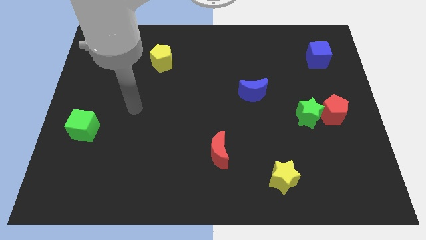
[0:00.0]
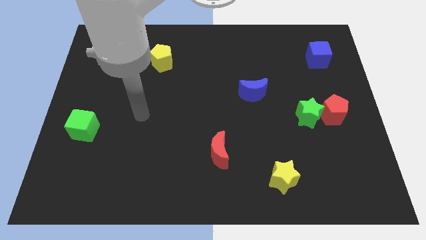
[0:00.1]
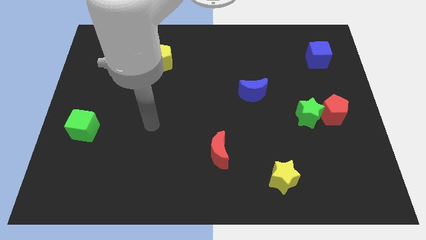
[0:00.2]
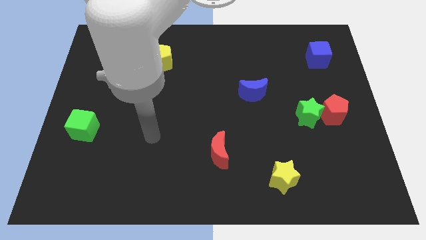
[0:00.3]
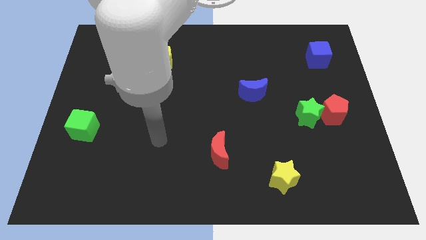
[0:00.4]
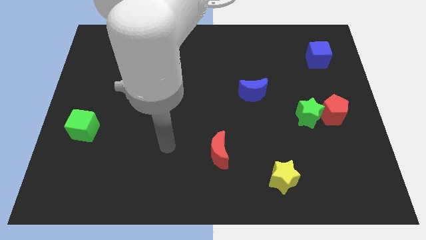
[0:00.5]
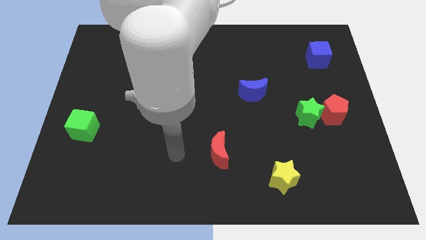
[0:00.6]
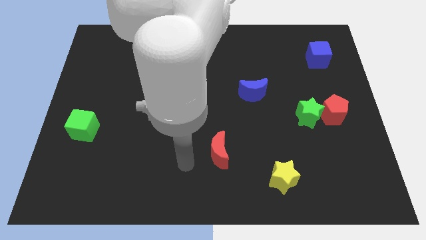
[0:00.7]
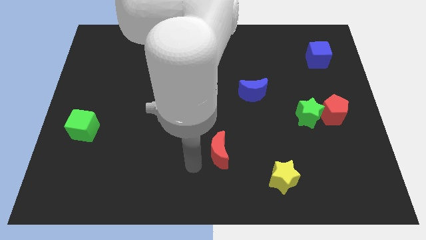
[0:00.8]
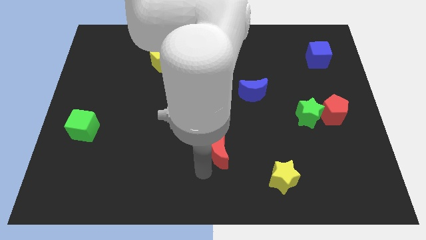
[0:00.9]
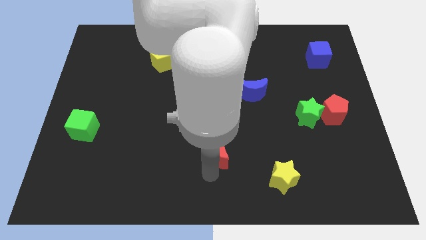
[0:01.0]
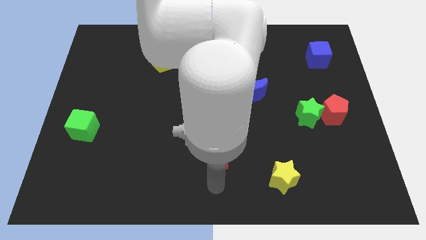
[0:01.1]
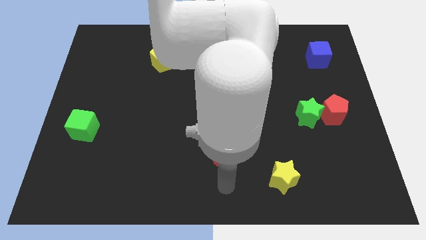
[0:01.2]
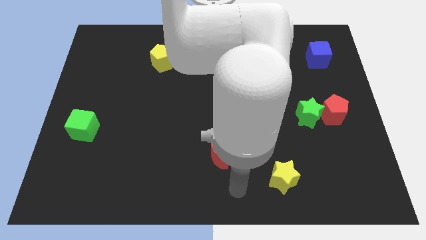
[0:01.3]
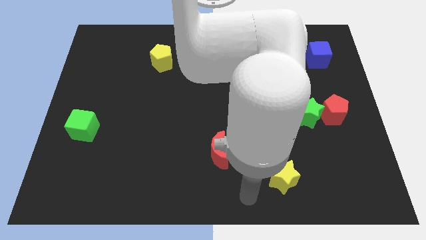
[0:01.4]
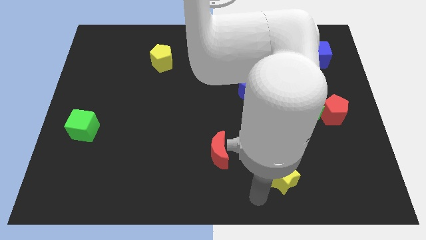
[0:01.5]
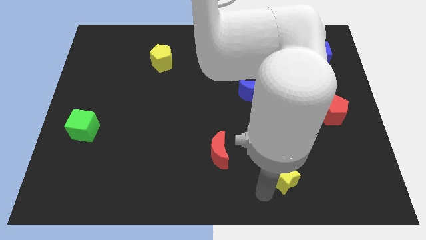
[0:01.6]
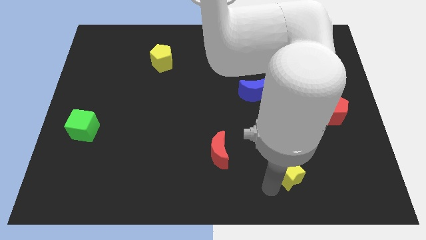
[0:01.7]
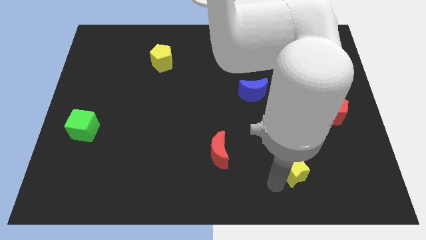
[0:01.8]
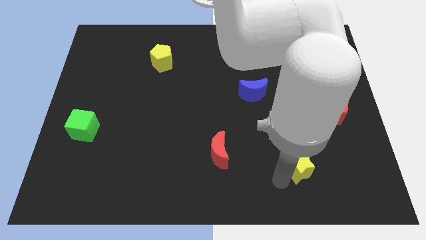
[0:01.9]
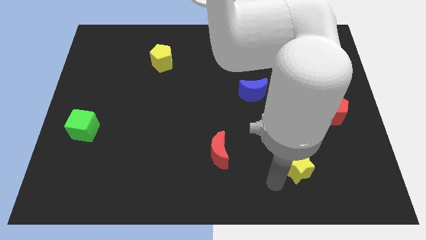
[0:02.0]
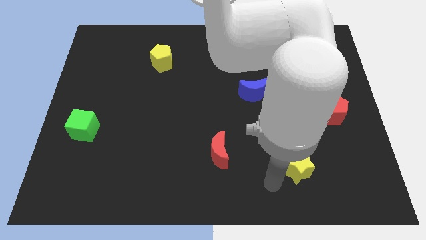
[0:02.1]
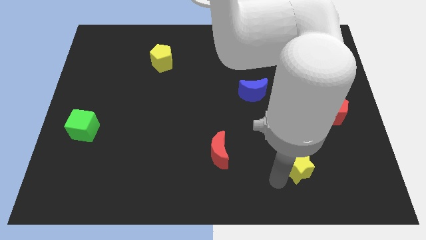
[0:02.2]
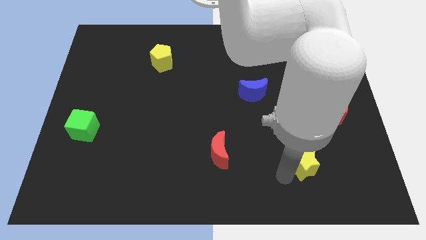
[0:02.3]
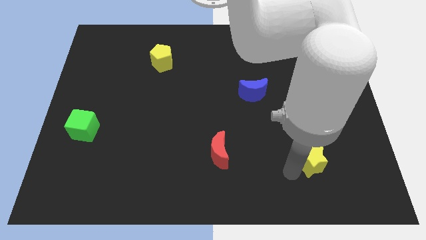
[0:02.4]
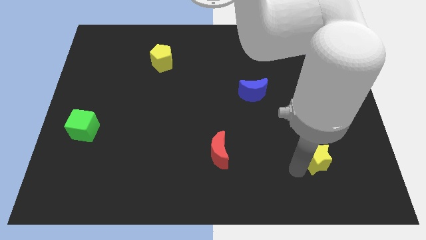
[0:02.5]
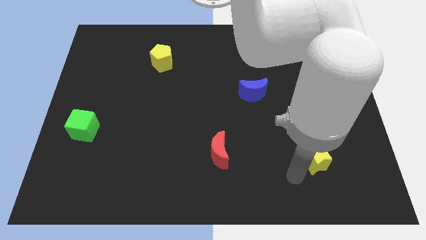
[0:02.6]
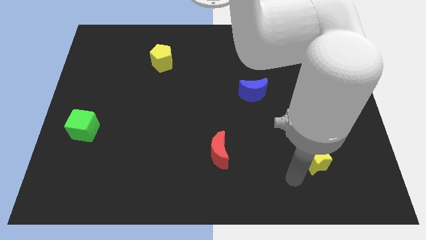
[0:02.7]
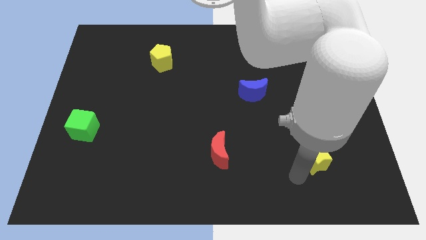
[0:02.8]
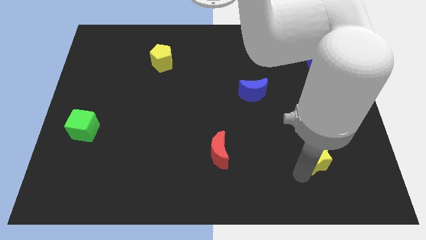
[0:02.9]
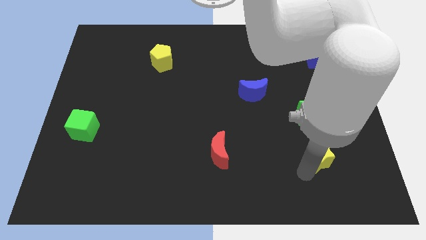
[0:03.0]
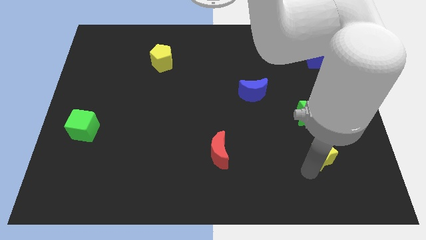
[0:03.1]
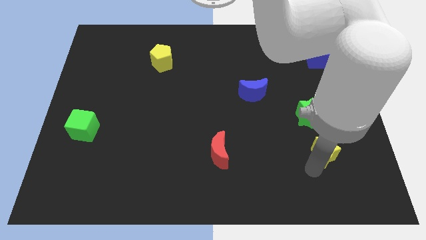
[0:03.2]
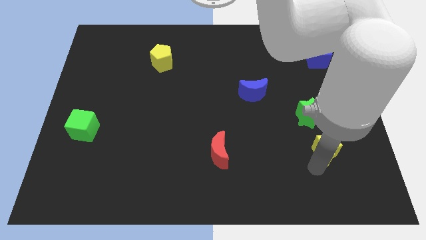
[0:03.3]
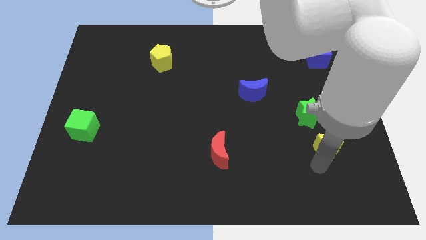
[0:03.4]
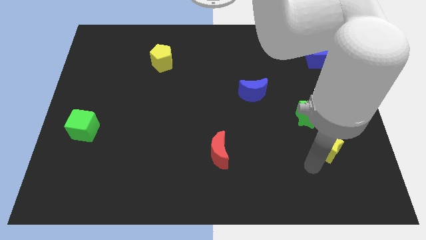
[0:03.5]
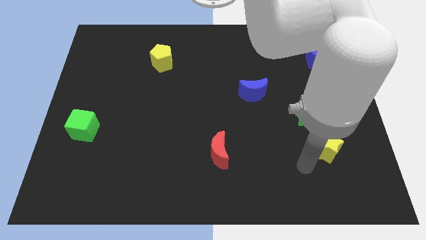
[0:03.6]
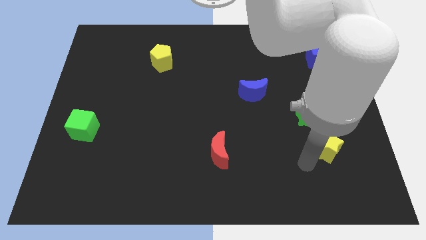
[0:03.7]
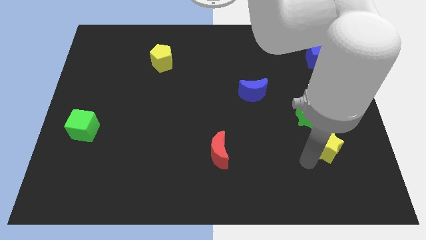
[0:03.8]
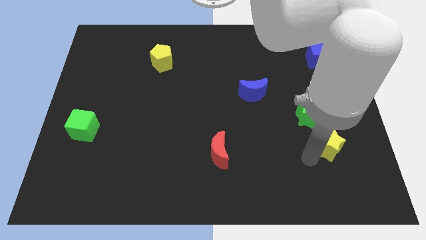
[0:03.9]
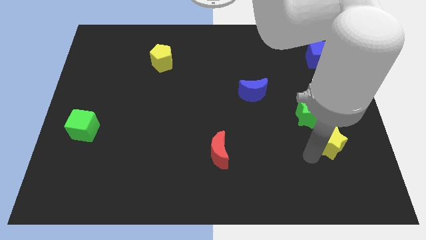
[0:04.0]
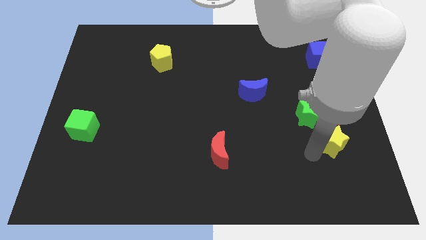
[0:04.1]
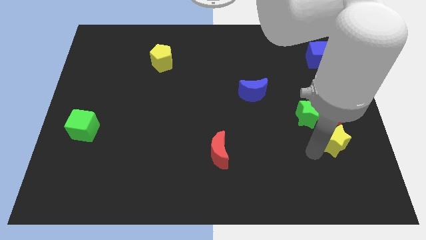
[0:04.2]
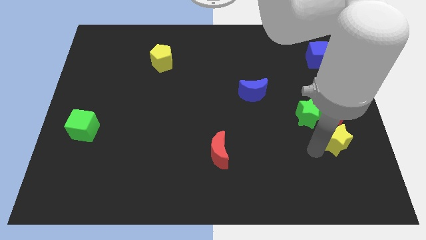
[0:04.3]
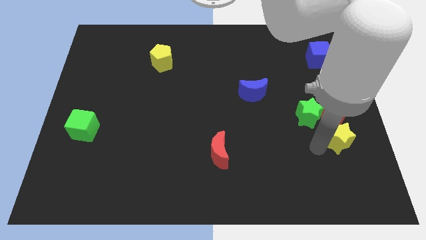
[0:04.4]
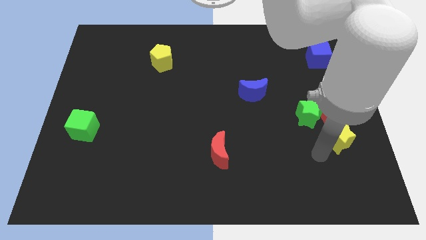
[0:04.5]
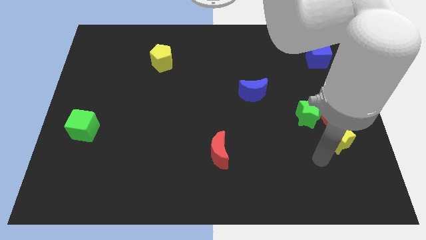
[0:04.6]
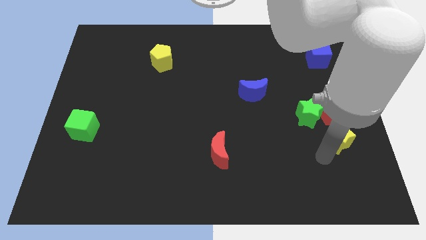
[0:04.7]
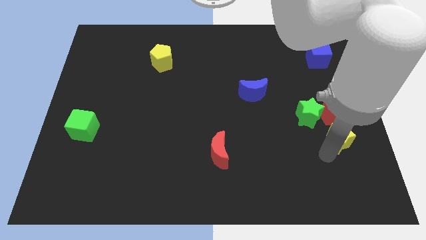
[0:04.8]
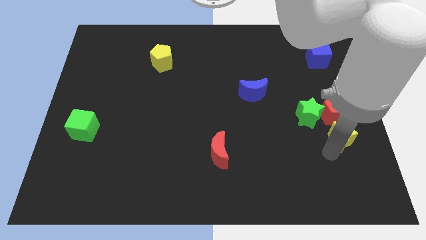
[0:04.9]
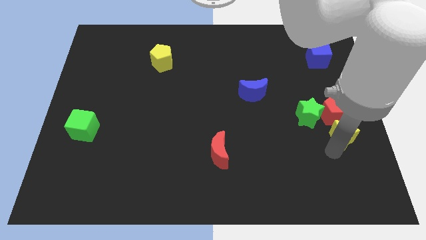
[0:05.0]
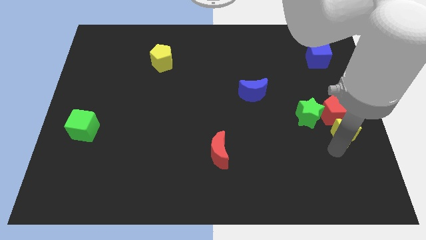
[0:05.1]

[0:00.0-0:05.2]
put the yellow star to the right side

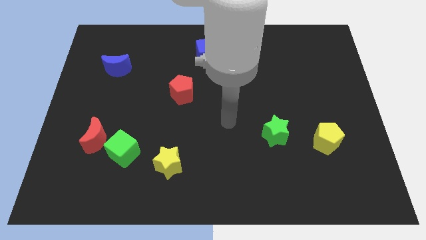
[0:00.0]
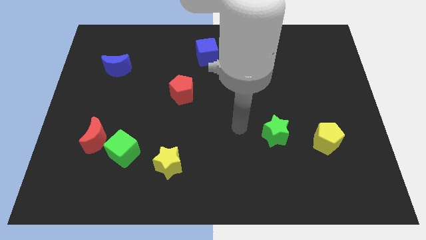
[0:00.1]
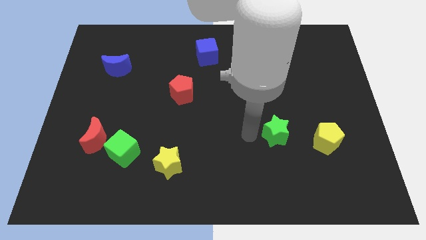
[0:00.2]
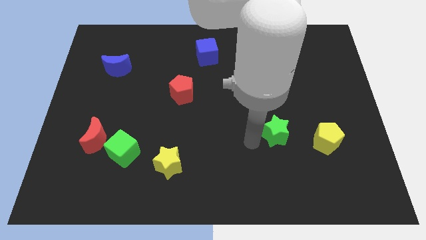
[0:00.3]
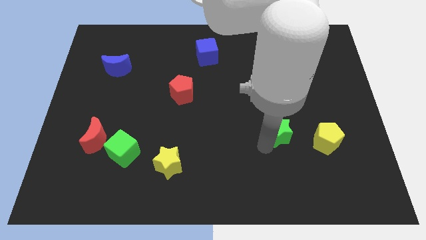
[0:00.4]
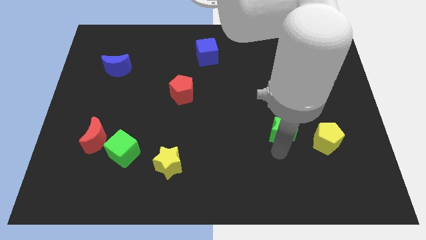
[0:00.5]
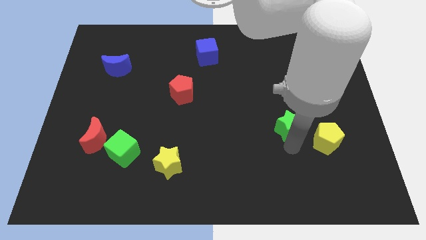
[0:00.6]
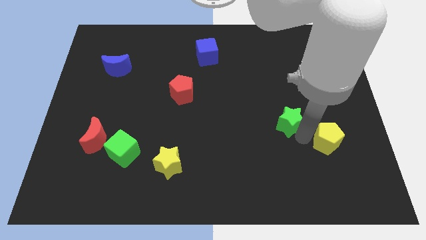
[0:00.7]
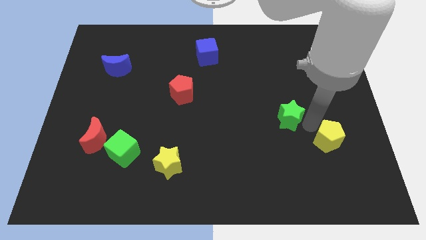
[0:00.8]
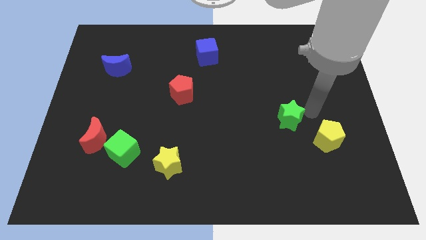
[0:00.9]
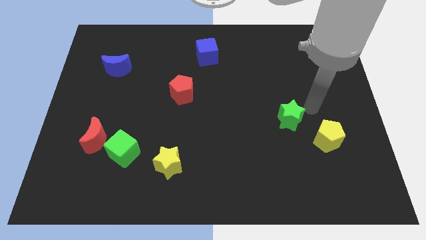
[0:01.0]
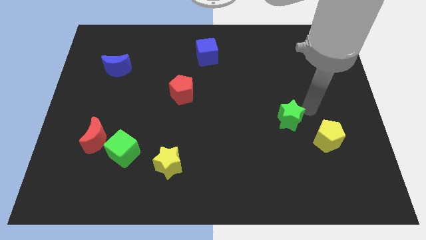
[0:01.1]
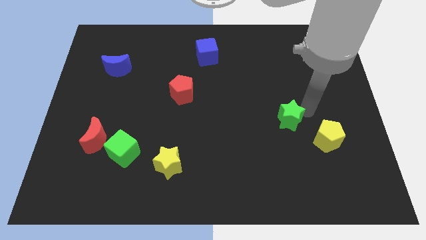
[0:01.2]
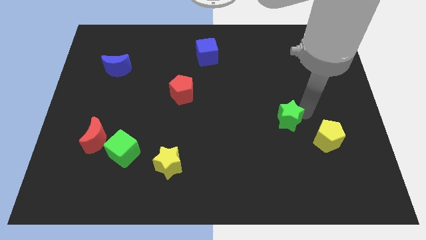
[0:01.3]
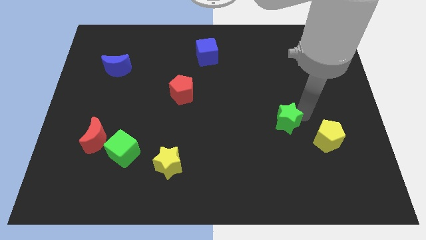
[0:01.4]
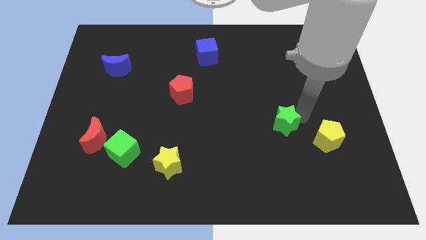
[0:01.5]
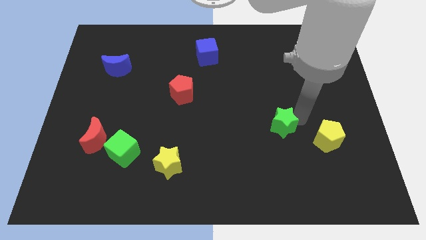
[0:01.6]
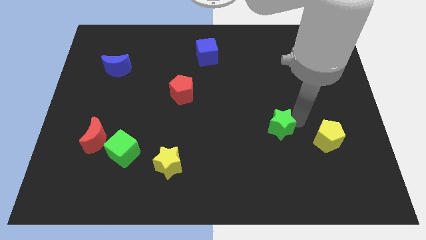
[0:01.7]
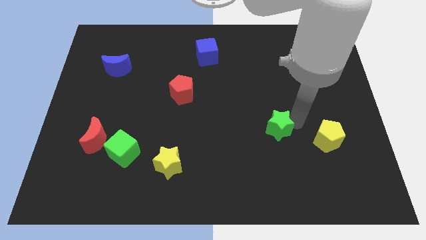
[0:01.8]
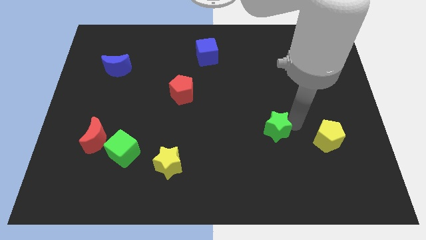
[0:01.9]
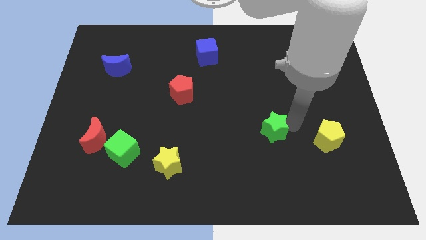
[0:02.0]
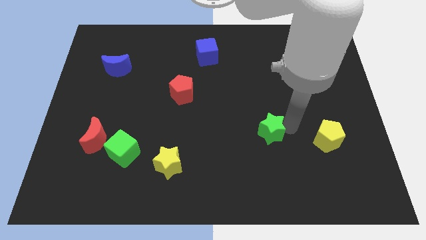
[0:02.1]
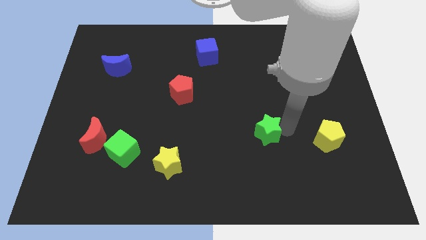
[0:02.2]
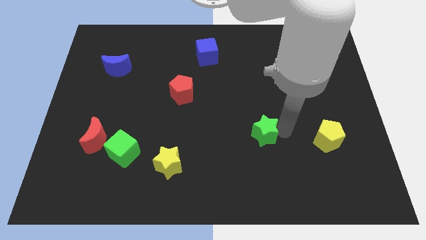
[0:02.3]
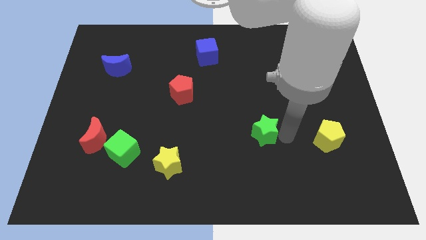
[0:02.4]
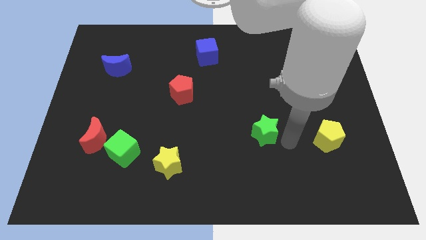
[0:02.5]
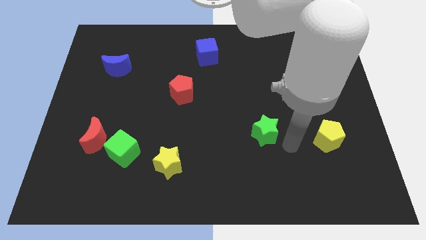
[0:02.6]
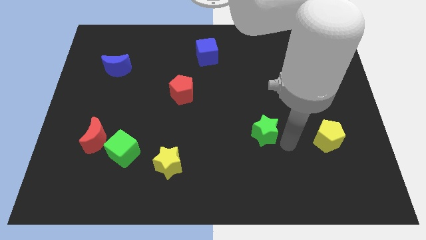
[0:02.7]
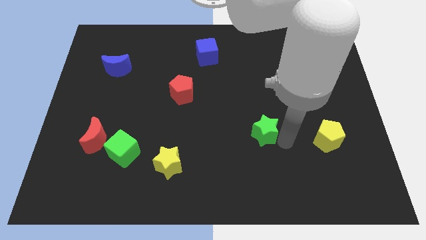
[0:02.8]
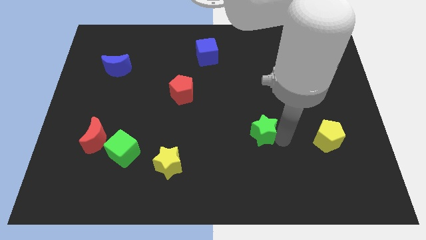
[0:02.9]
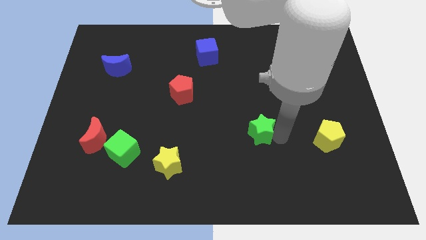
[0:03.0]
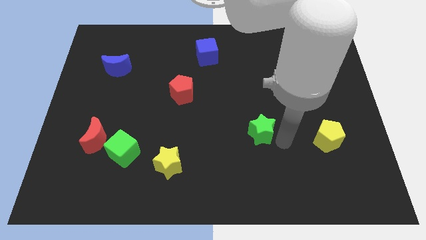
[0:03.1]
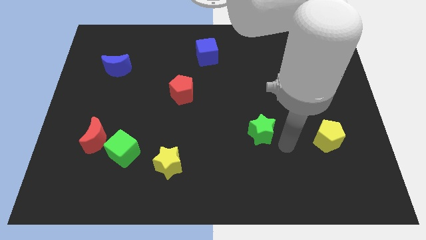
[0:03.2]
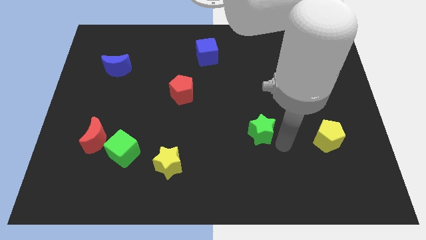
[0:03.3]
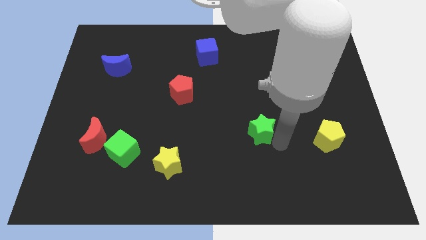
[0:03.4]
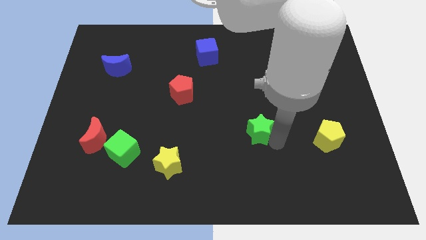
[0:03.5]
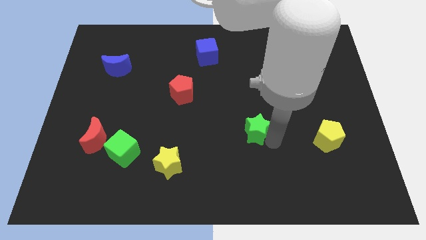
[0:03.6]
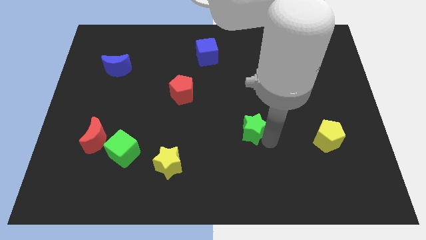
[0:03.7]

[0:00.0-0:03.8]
slide the green star to the middle
